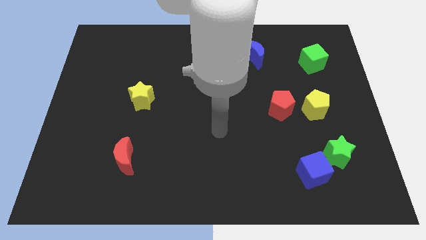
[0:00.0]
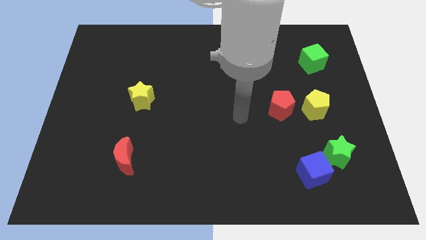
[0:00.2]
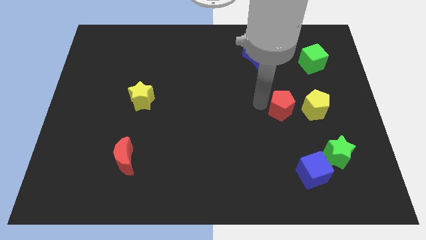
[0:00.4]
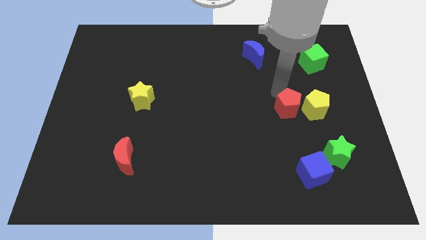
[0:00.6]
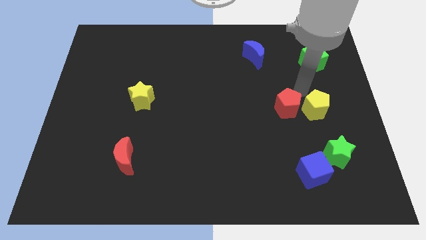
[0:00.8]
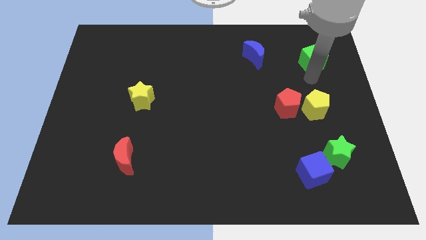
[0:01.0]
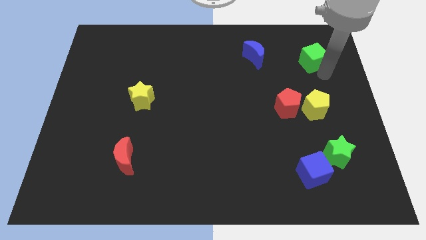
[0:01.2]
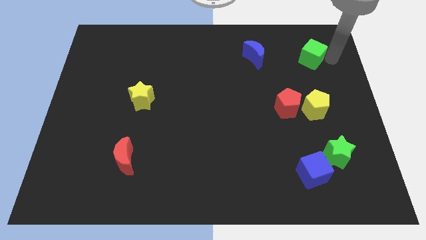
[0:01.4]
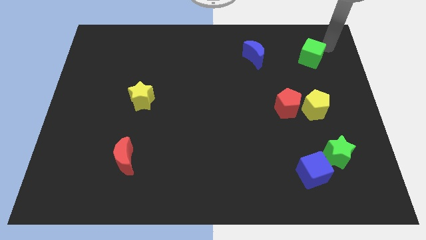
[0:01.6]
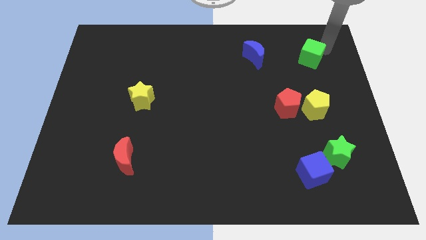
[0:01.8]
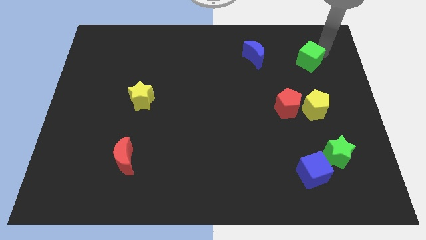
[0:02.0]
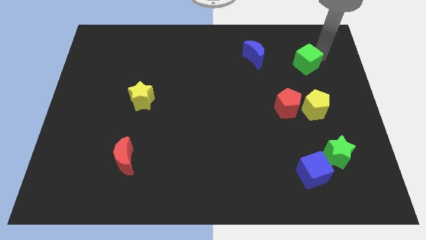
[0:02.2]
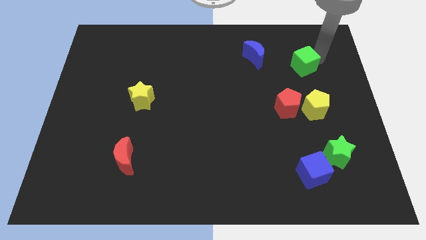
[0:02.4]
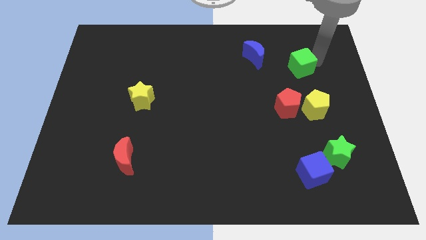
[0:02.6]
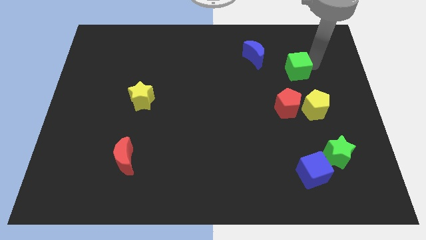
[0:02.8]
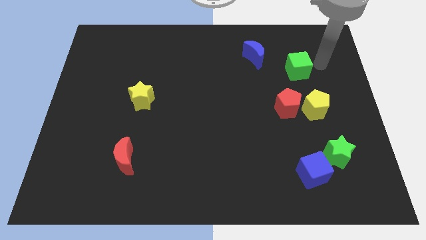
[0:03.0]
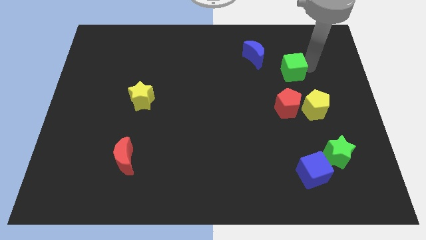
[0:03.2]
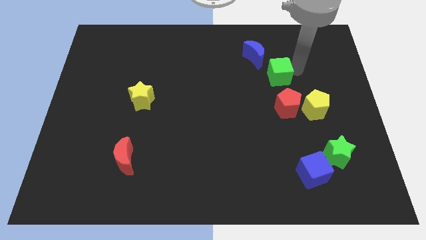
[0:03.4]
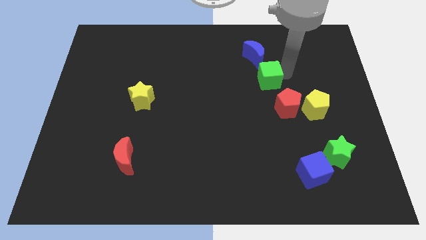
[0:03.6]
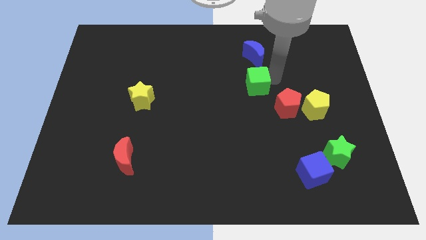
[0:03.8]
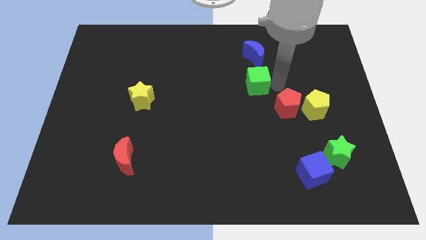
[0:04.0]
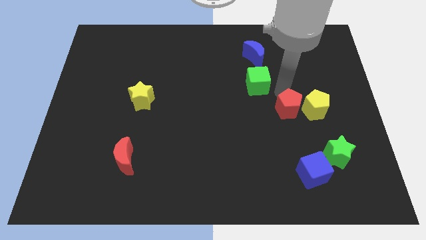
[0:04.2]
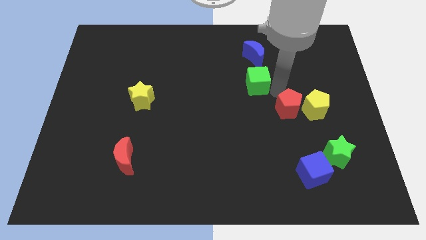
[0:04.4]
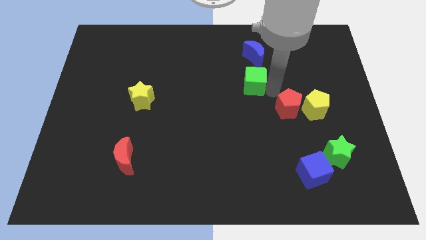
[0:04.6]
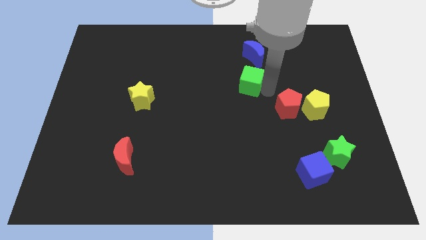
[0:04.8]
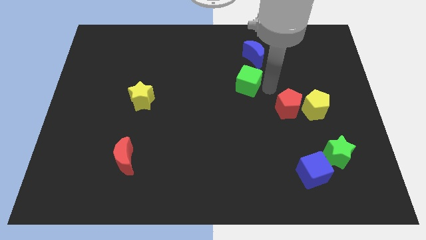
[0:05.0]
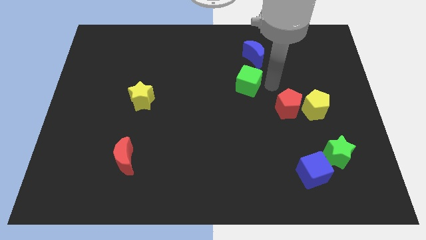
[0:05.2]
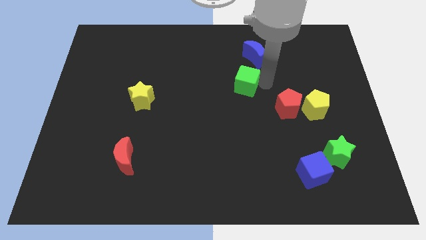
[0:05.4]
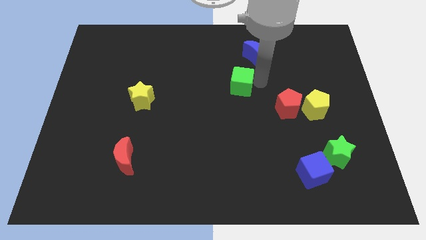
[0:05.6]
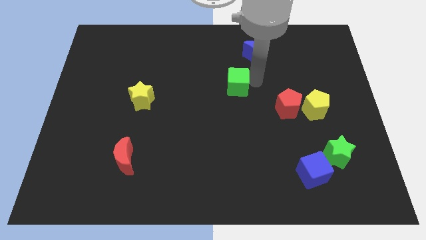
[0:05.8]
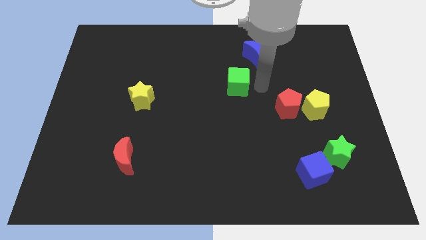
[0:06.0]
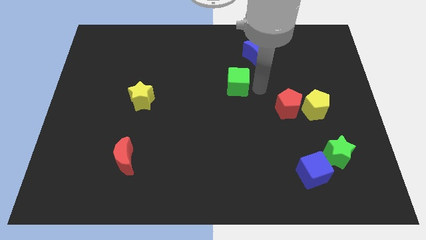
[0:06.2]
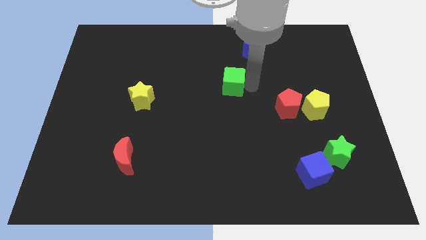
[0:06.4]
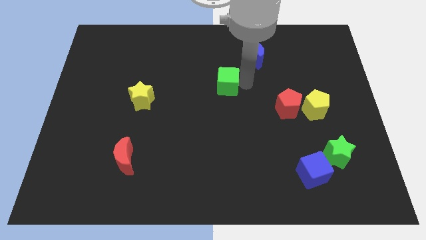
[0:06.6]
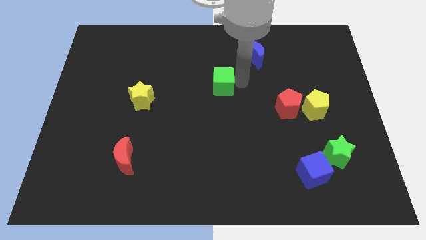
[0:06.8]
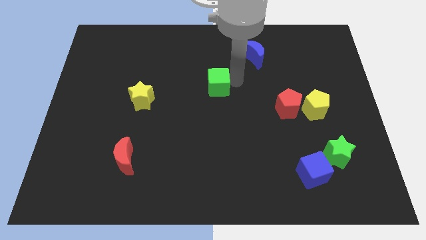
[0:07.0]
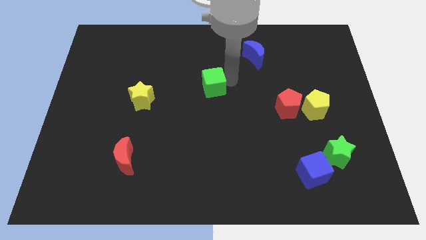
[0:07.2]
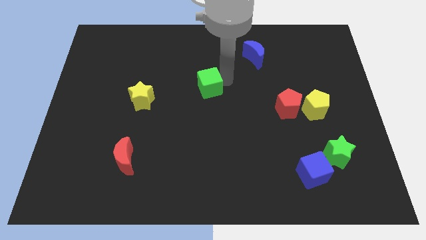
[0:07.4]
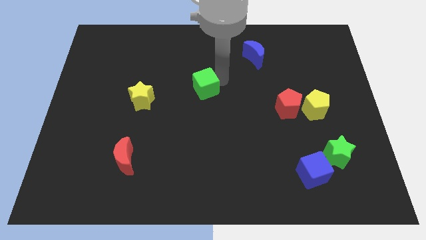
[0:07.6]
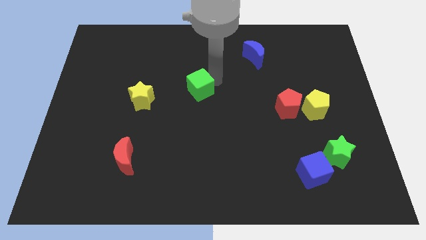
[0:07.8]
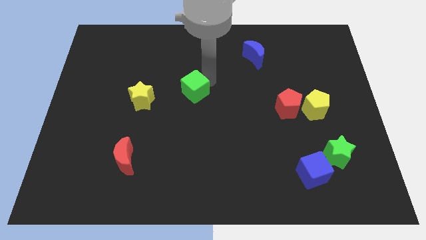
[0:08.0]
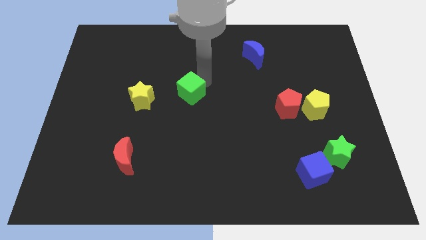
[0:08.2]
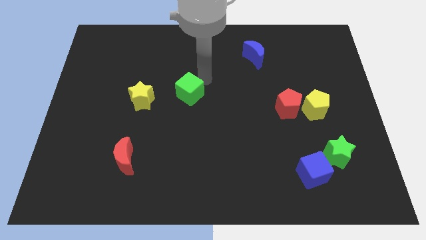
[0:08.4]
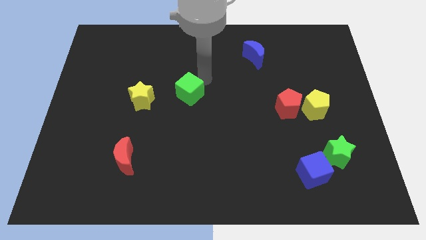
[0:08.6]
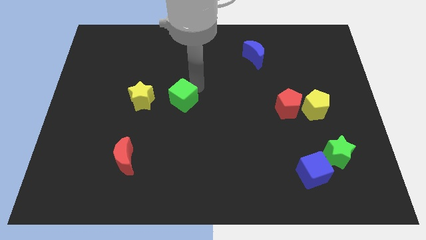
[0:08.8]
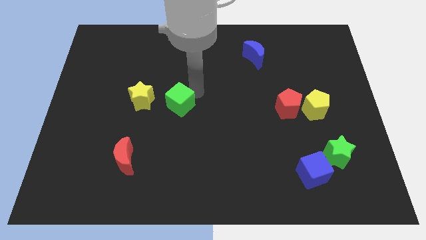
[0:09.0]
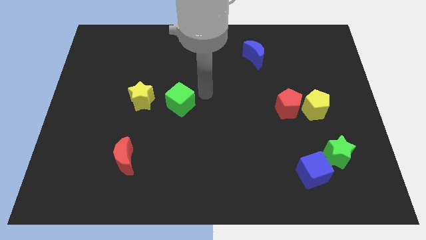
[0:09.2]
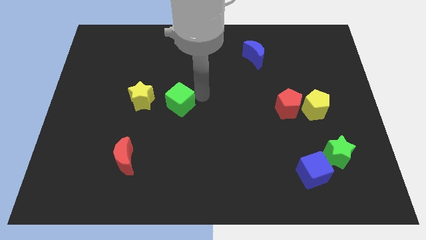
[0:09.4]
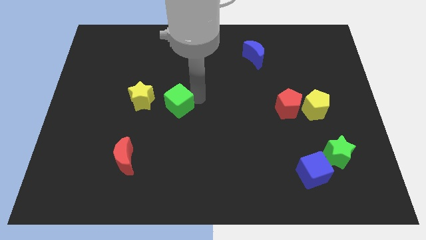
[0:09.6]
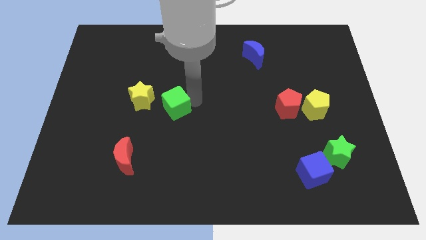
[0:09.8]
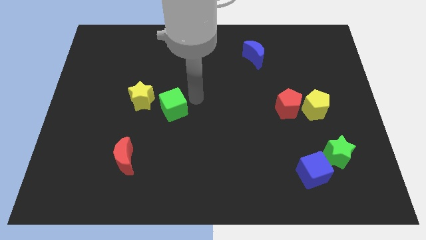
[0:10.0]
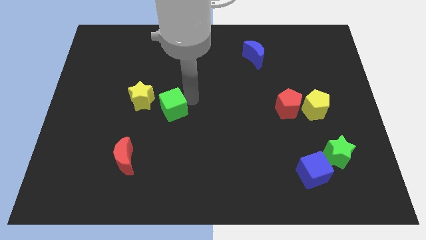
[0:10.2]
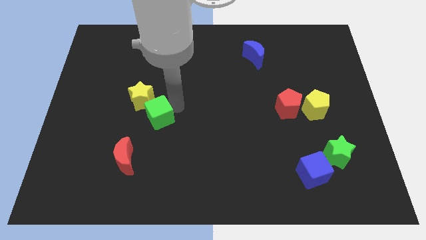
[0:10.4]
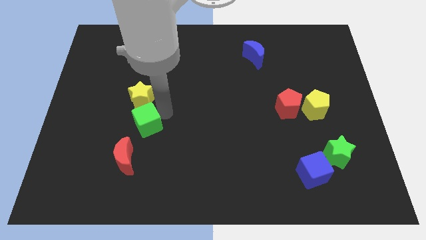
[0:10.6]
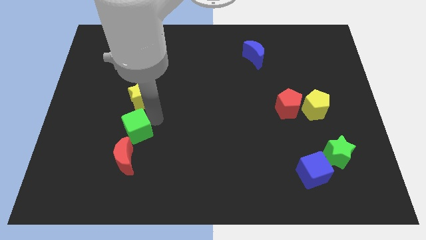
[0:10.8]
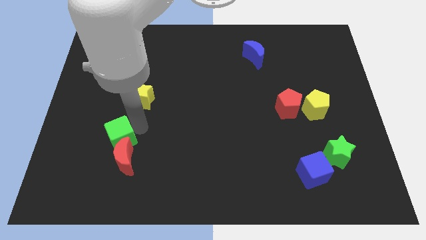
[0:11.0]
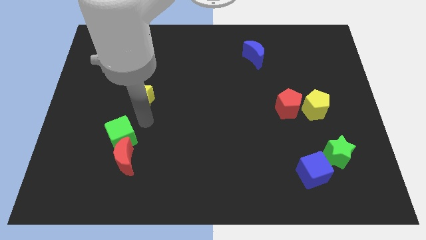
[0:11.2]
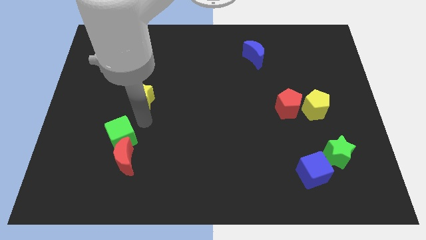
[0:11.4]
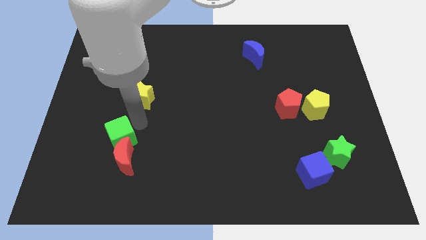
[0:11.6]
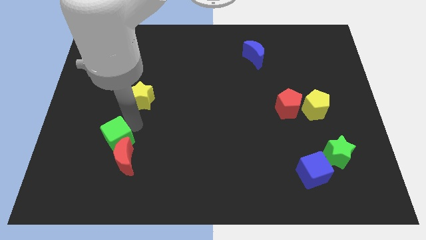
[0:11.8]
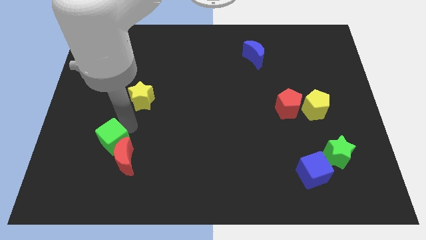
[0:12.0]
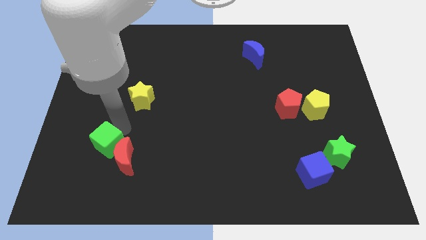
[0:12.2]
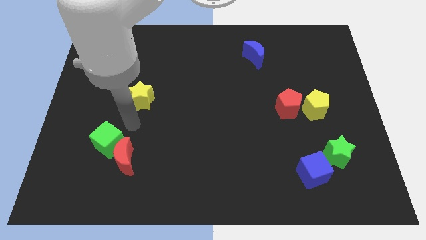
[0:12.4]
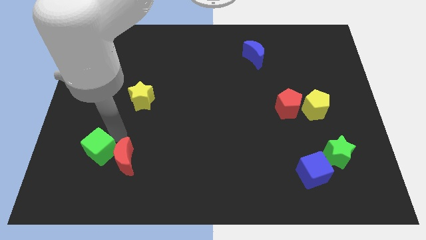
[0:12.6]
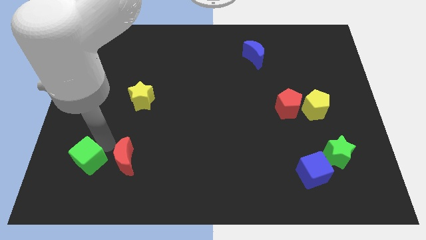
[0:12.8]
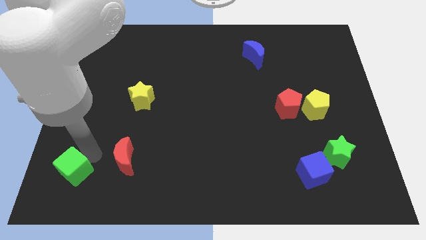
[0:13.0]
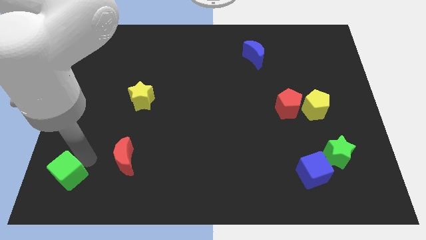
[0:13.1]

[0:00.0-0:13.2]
push the green cube to the lower left corner
